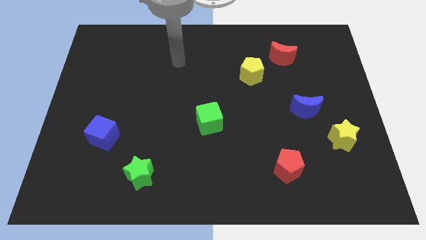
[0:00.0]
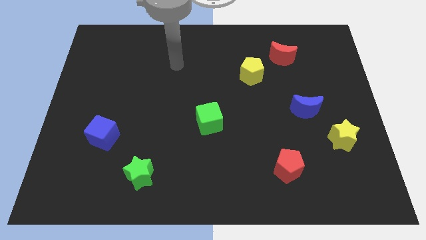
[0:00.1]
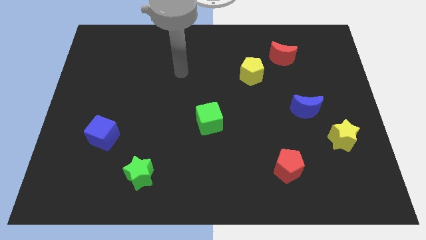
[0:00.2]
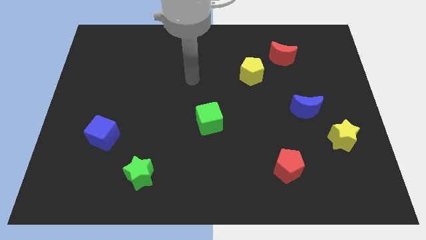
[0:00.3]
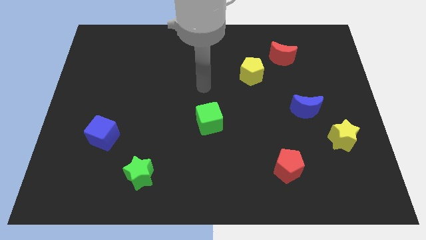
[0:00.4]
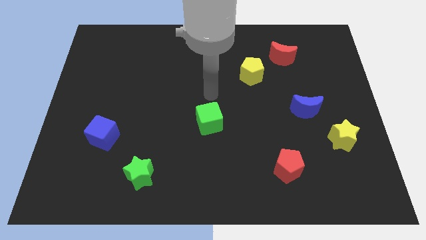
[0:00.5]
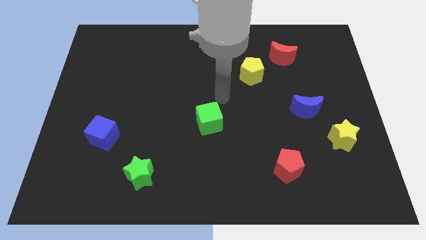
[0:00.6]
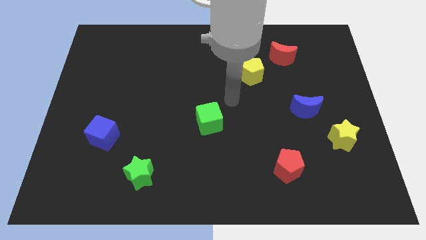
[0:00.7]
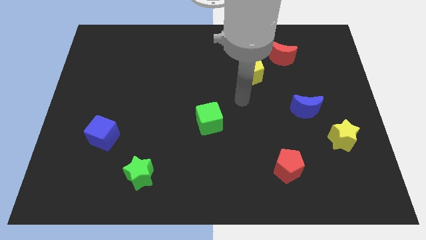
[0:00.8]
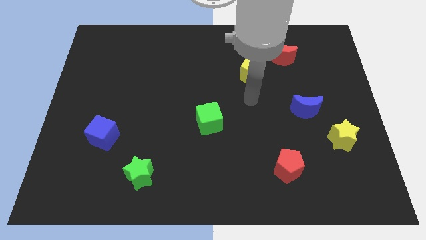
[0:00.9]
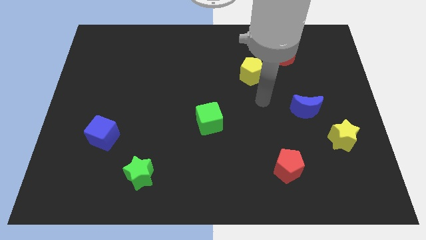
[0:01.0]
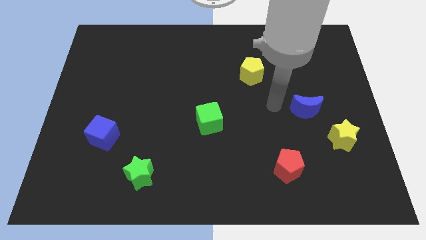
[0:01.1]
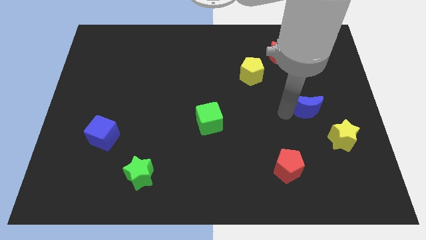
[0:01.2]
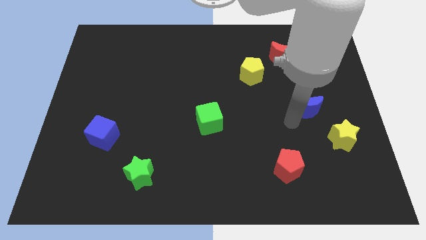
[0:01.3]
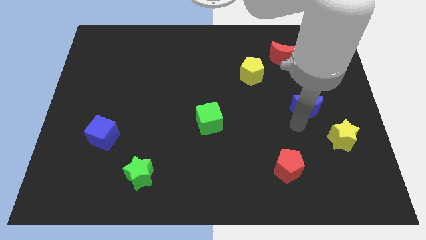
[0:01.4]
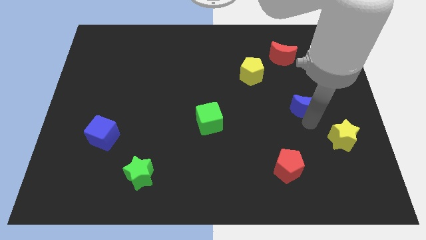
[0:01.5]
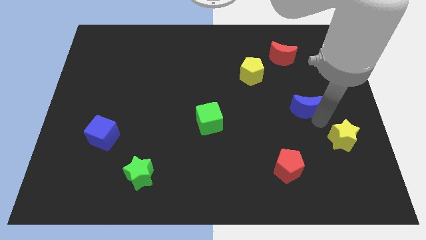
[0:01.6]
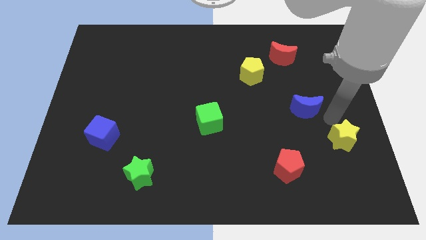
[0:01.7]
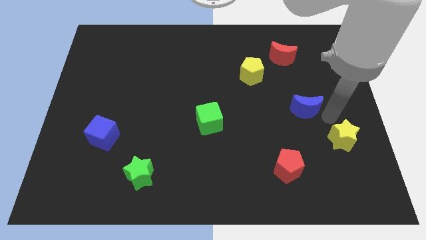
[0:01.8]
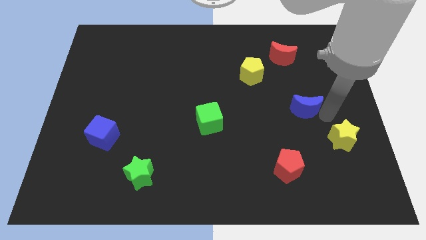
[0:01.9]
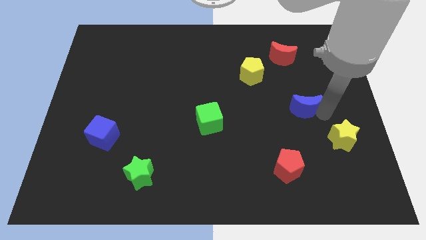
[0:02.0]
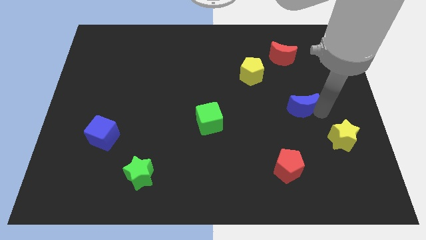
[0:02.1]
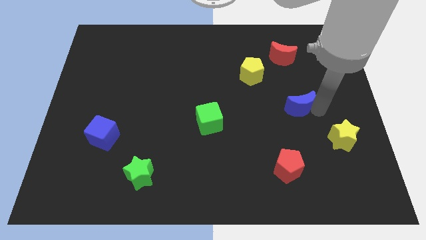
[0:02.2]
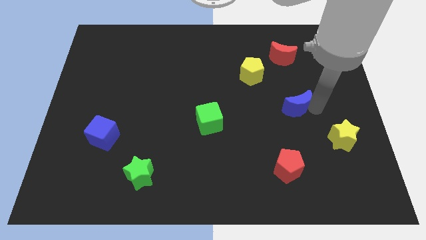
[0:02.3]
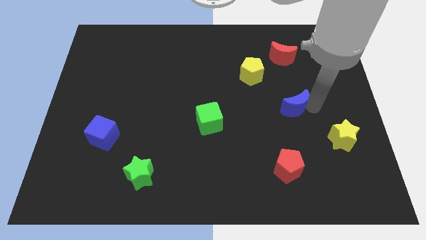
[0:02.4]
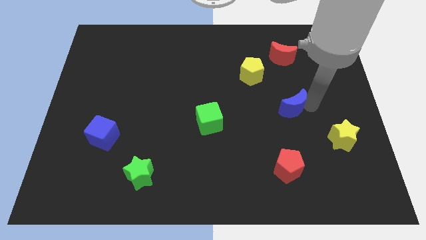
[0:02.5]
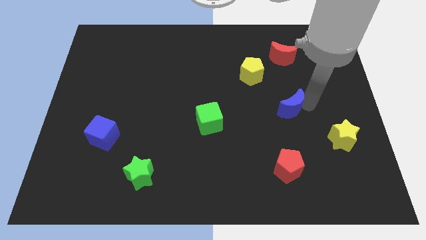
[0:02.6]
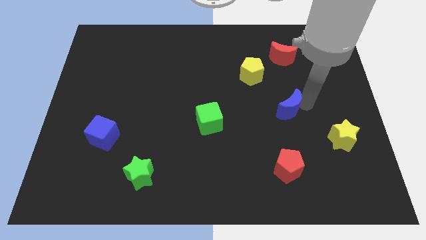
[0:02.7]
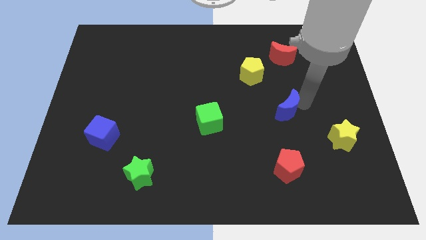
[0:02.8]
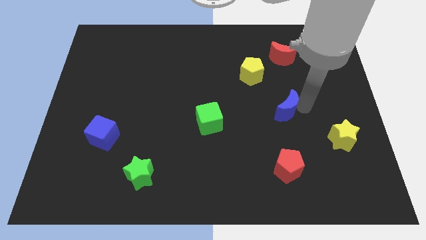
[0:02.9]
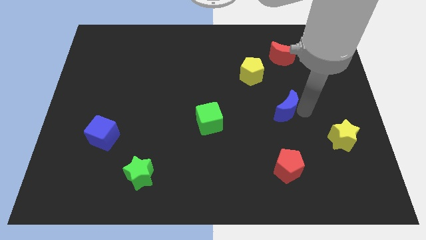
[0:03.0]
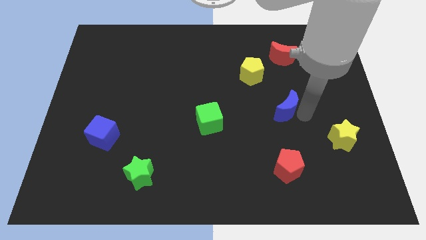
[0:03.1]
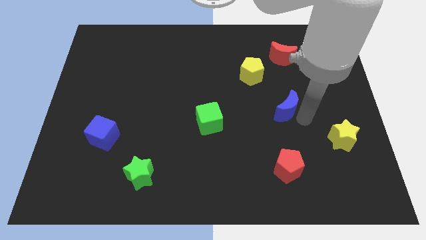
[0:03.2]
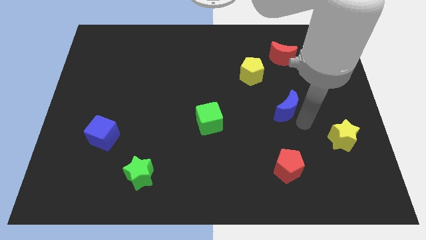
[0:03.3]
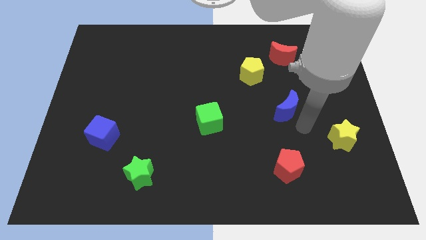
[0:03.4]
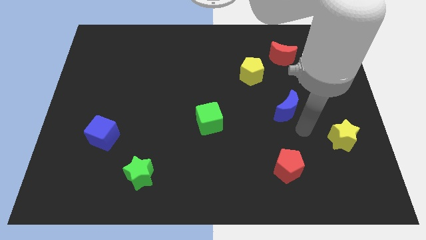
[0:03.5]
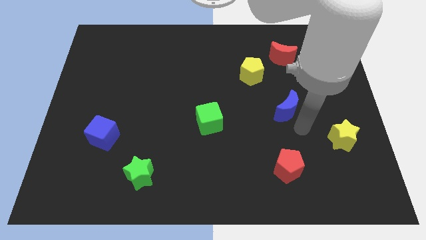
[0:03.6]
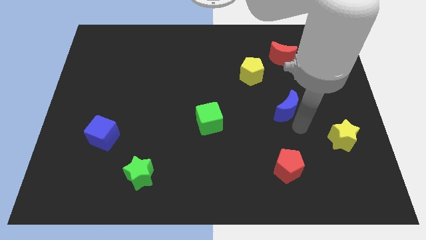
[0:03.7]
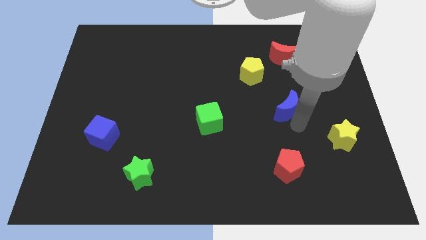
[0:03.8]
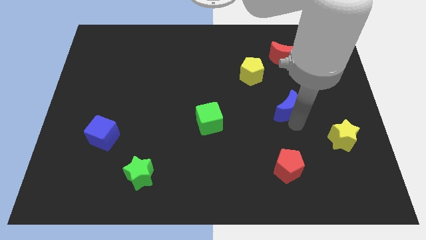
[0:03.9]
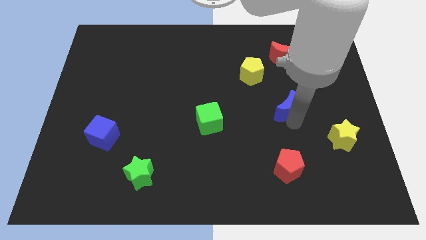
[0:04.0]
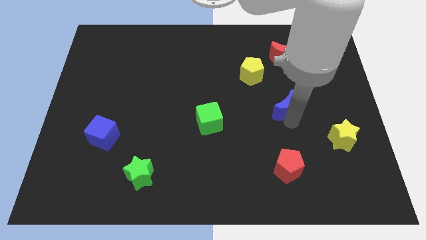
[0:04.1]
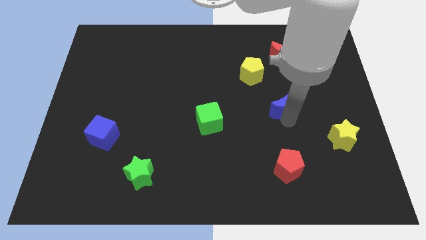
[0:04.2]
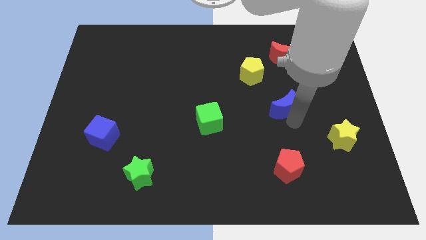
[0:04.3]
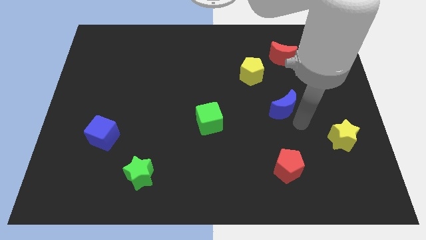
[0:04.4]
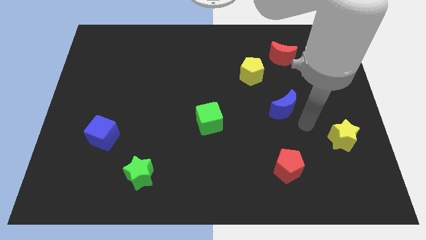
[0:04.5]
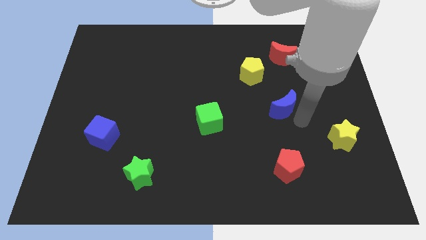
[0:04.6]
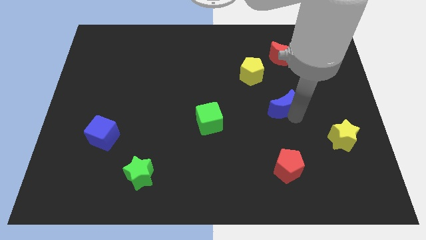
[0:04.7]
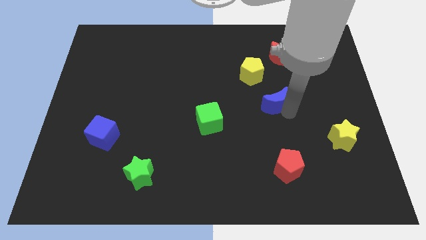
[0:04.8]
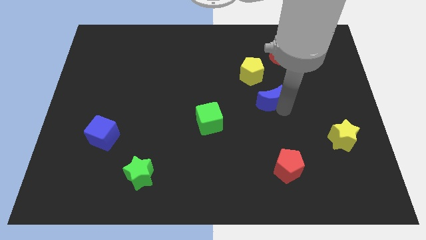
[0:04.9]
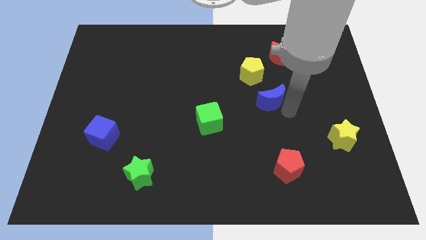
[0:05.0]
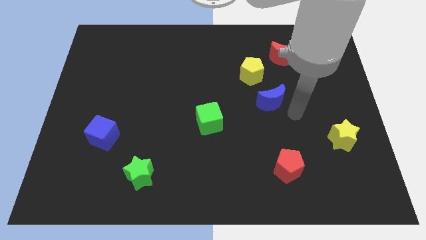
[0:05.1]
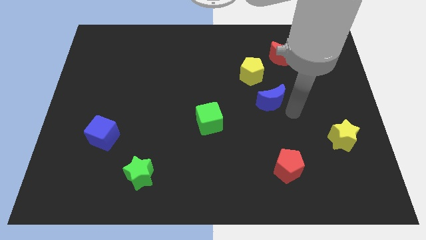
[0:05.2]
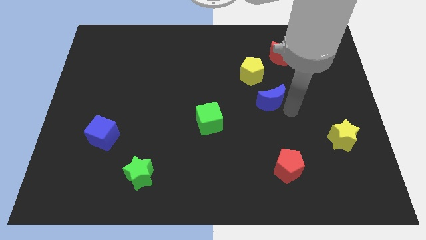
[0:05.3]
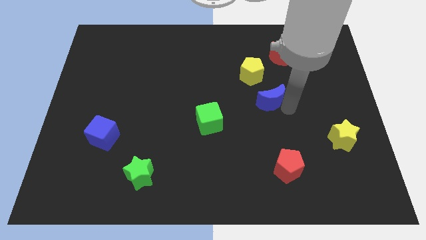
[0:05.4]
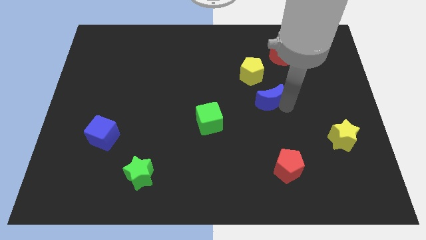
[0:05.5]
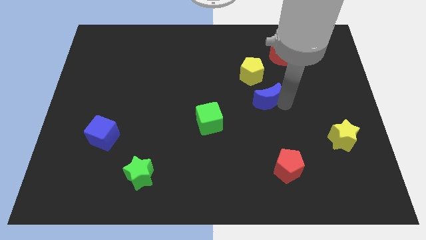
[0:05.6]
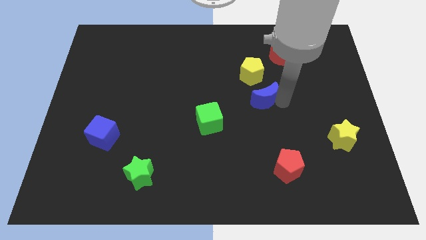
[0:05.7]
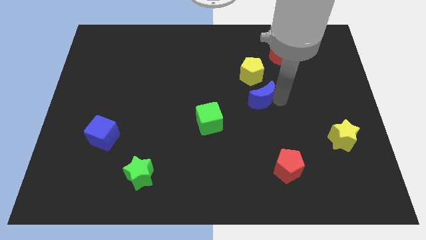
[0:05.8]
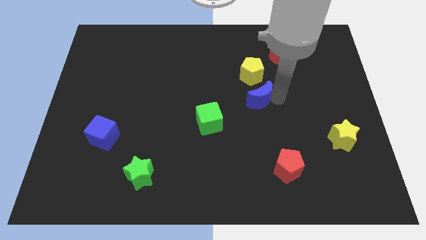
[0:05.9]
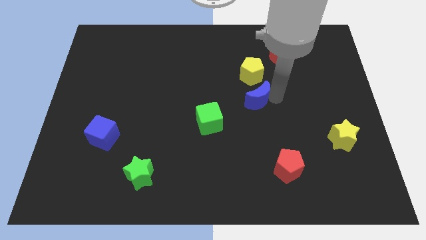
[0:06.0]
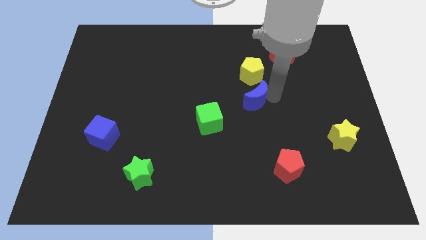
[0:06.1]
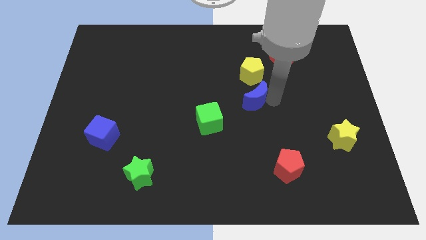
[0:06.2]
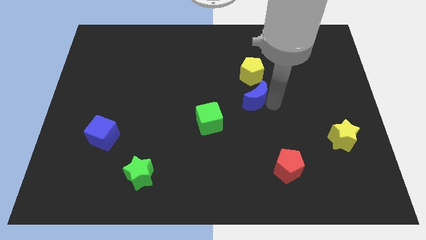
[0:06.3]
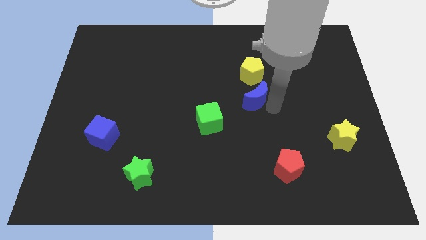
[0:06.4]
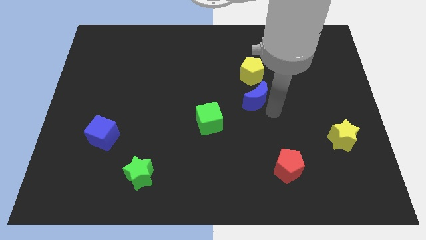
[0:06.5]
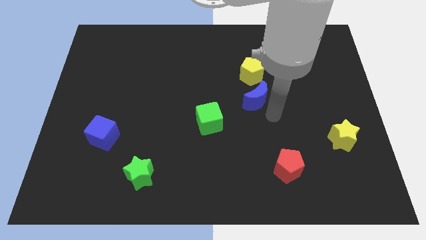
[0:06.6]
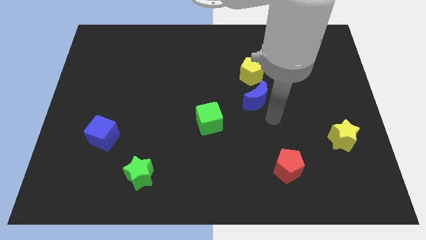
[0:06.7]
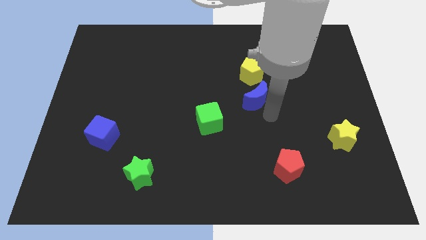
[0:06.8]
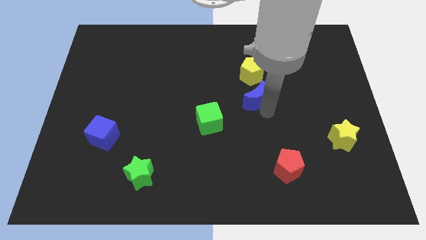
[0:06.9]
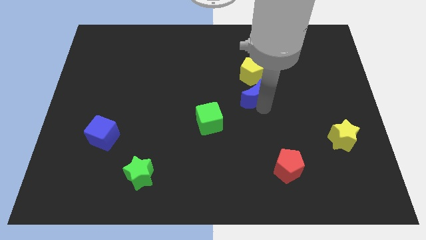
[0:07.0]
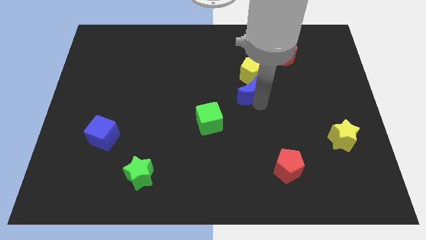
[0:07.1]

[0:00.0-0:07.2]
slide the blue moon diagonally down and to the left of the yellow pentagon

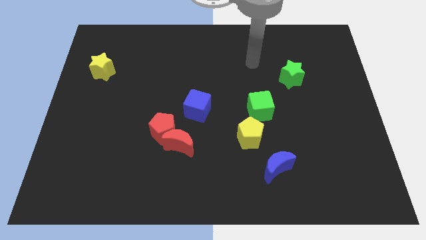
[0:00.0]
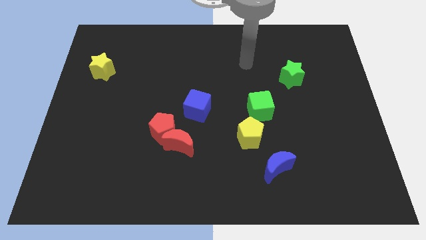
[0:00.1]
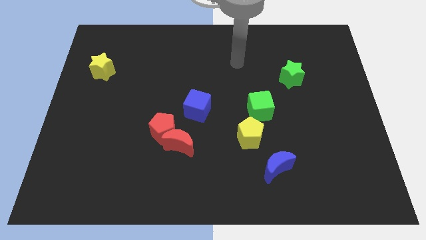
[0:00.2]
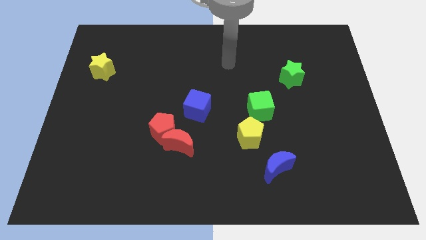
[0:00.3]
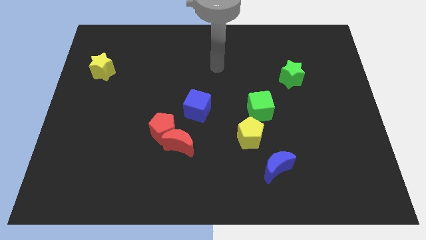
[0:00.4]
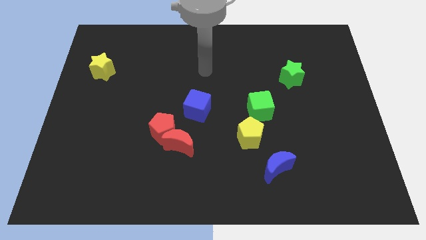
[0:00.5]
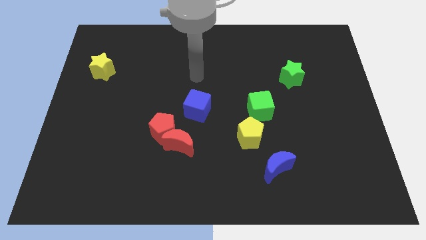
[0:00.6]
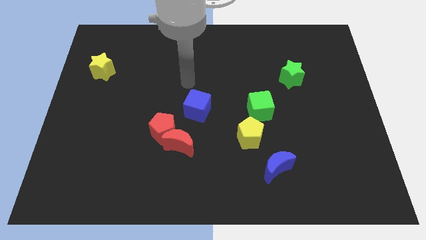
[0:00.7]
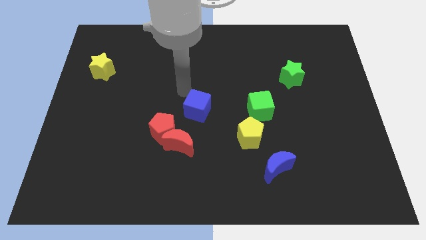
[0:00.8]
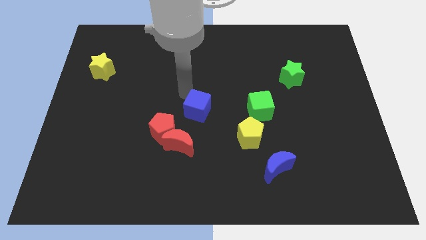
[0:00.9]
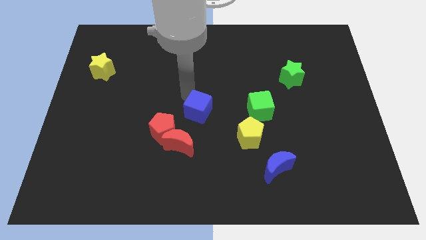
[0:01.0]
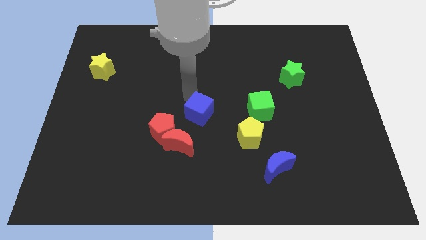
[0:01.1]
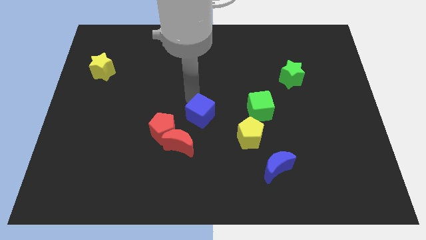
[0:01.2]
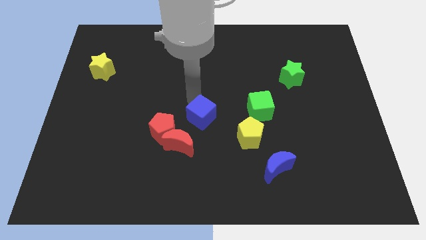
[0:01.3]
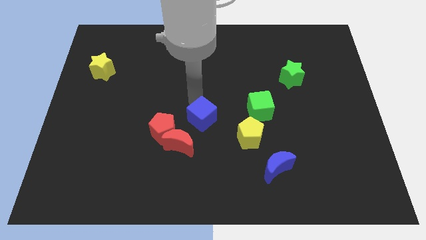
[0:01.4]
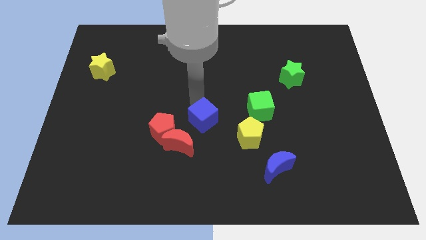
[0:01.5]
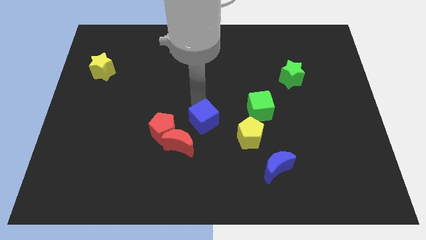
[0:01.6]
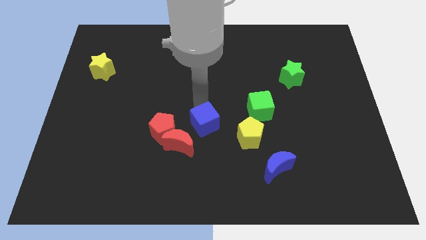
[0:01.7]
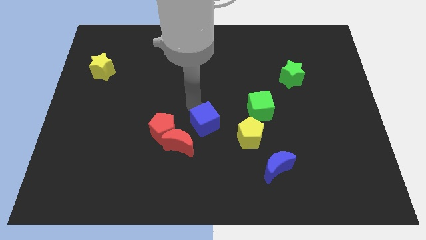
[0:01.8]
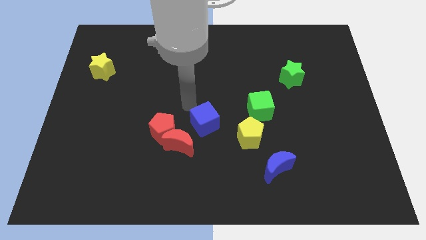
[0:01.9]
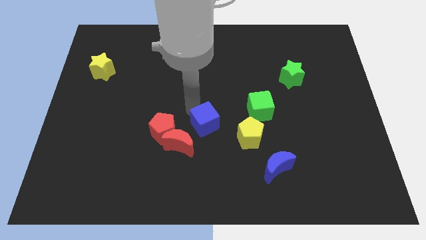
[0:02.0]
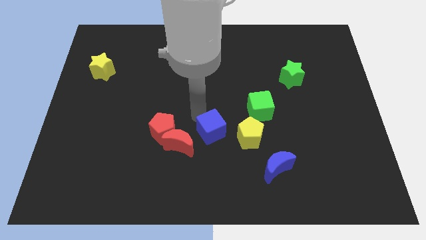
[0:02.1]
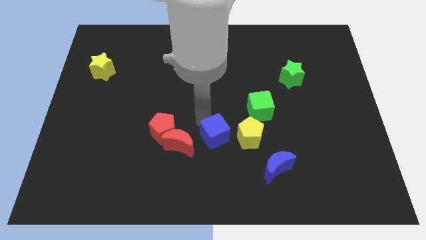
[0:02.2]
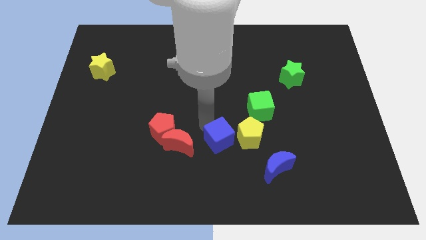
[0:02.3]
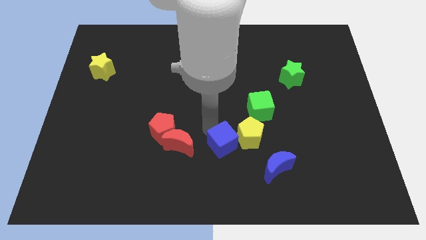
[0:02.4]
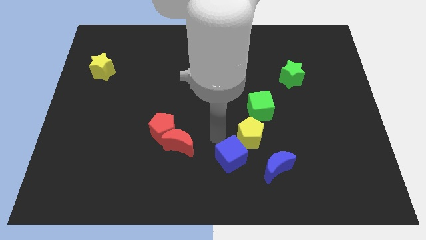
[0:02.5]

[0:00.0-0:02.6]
move the blue cube to the bottom side of the yellow pentagon
